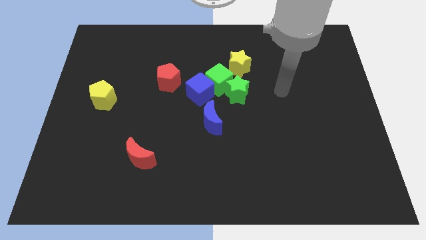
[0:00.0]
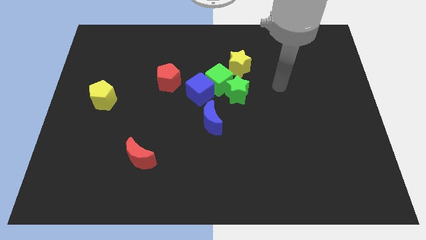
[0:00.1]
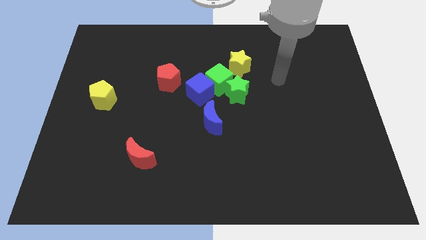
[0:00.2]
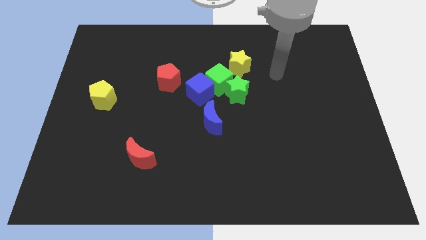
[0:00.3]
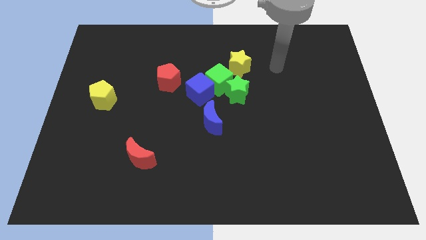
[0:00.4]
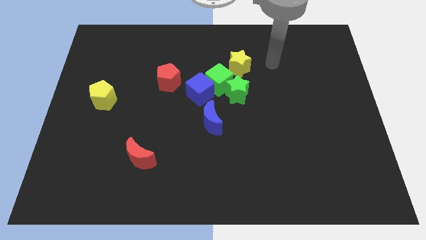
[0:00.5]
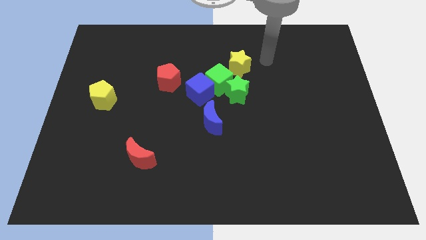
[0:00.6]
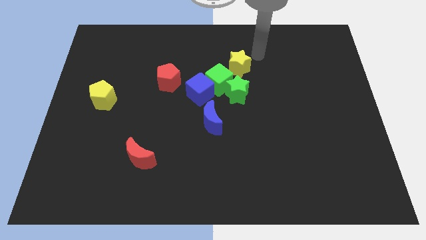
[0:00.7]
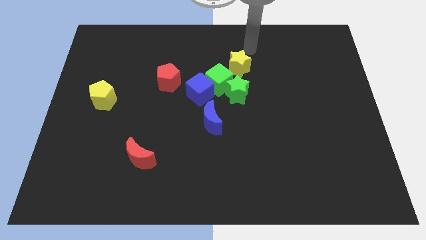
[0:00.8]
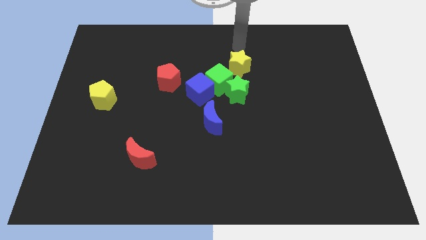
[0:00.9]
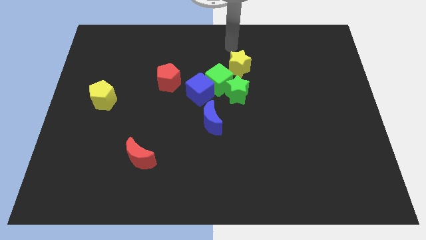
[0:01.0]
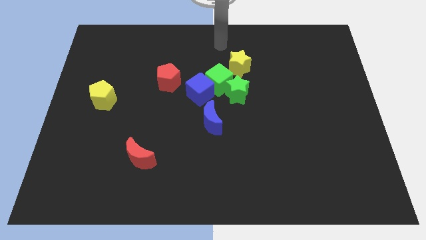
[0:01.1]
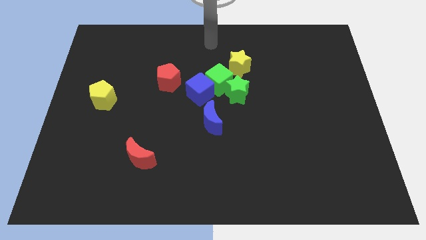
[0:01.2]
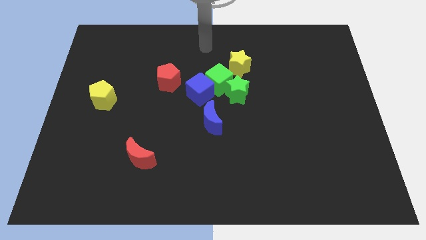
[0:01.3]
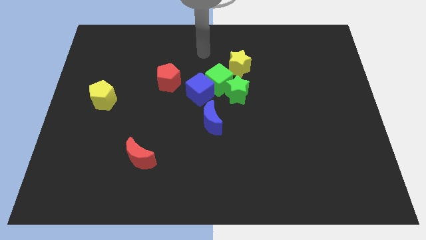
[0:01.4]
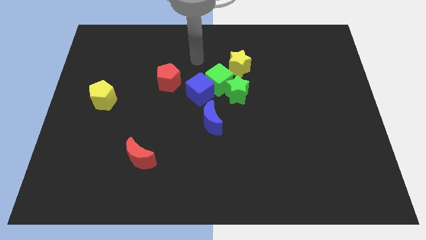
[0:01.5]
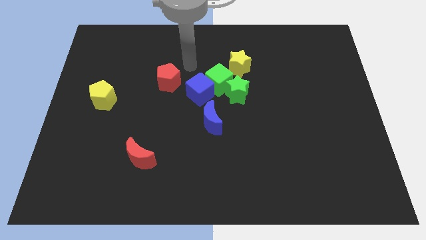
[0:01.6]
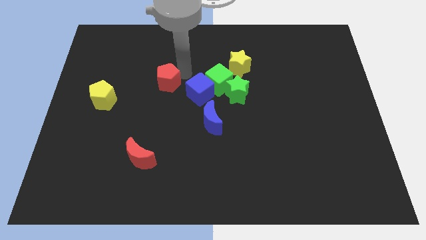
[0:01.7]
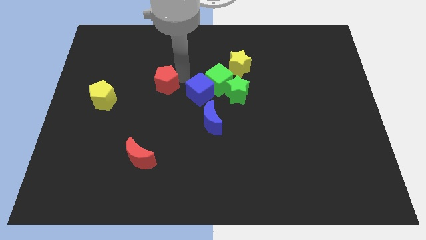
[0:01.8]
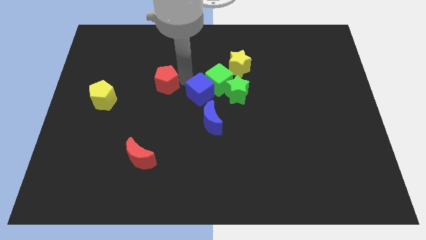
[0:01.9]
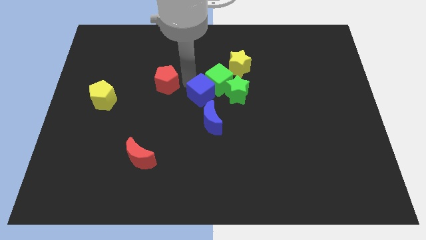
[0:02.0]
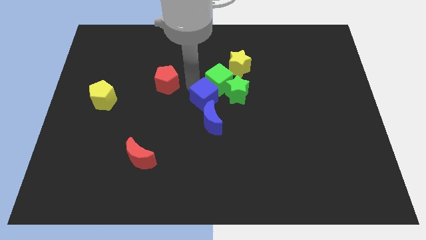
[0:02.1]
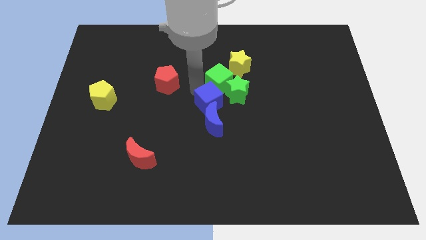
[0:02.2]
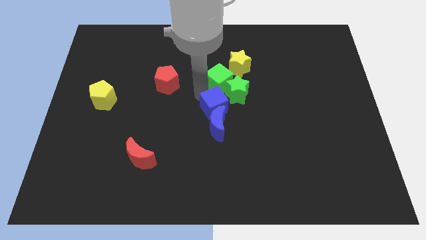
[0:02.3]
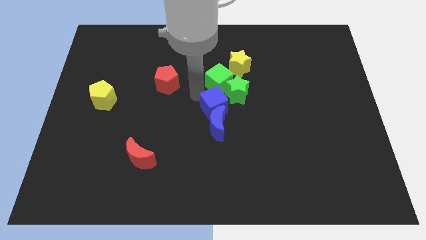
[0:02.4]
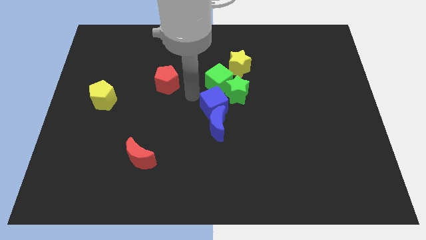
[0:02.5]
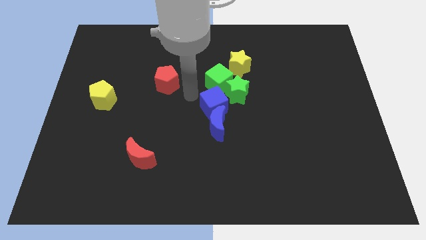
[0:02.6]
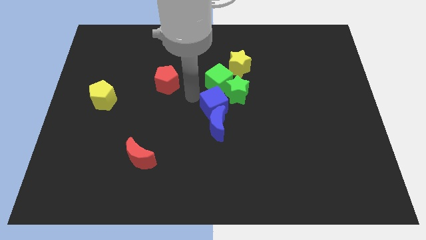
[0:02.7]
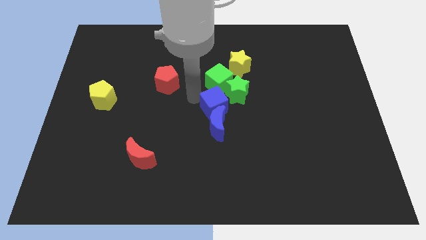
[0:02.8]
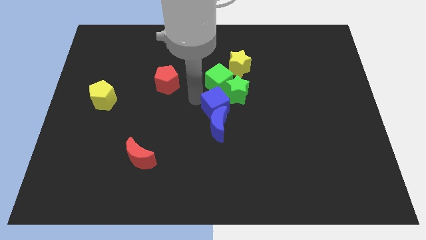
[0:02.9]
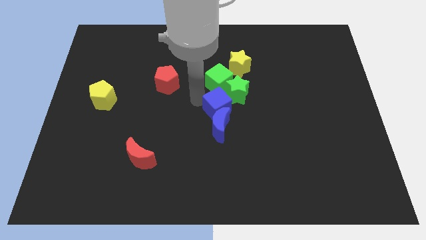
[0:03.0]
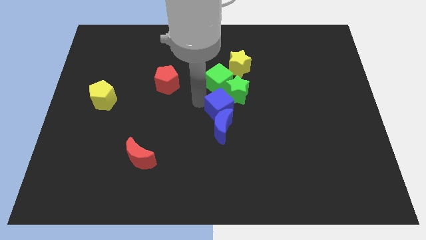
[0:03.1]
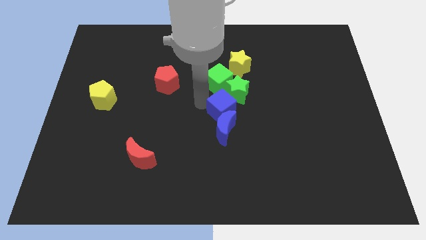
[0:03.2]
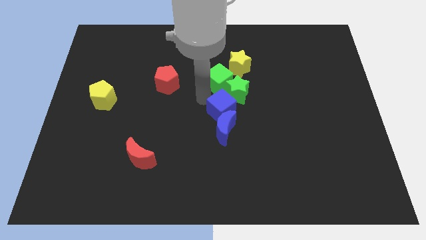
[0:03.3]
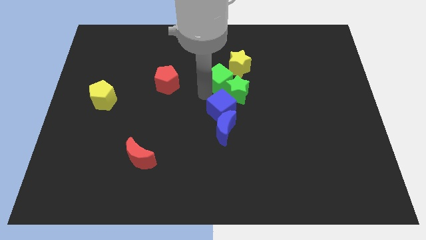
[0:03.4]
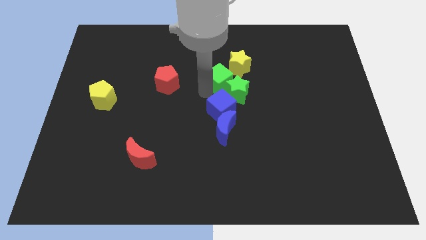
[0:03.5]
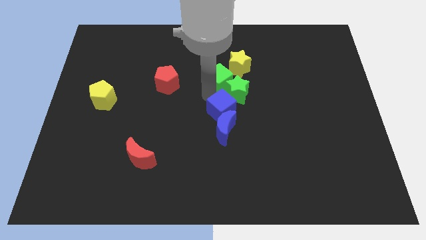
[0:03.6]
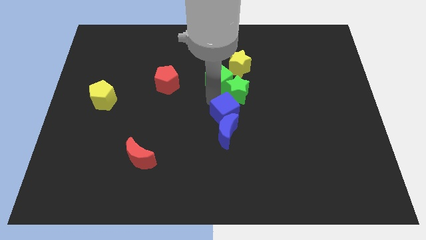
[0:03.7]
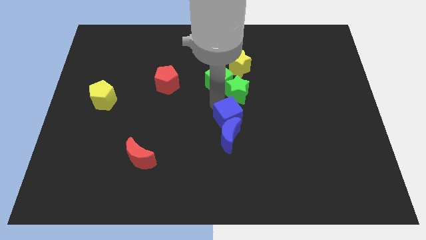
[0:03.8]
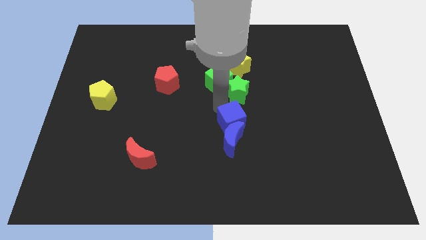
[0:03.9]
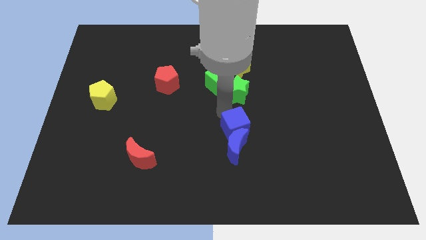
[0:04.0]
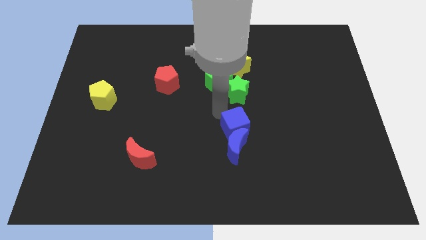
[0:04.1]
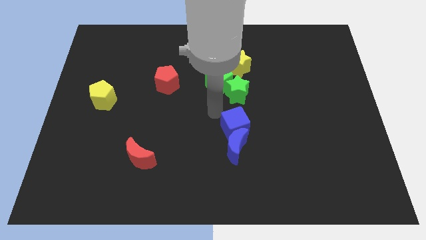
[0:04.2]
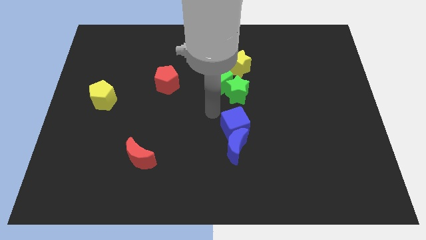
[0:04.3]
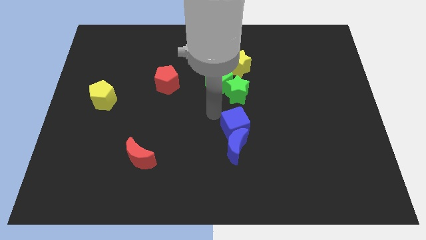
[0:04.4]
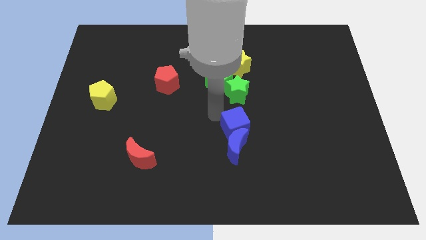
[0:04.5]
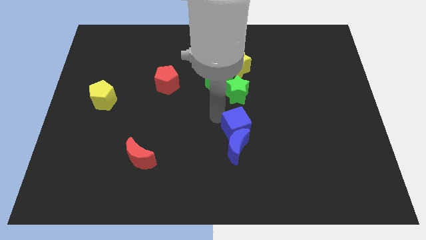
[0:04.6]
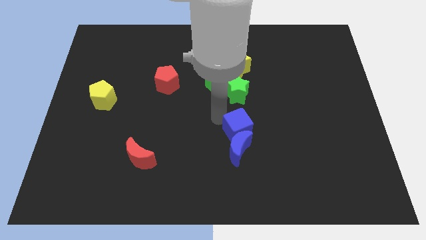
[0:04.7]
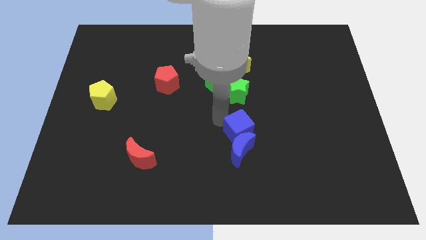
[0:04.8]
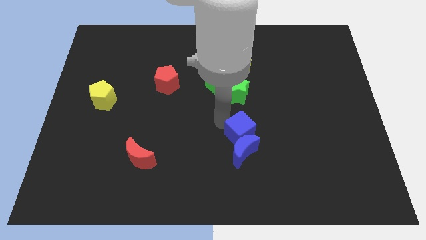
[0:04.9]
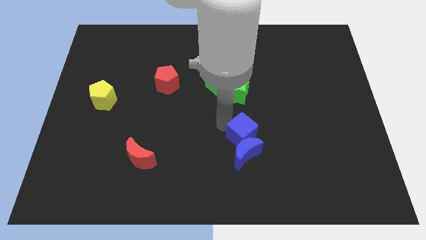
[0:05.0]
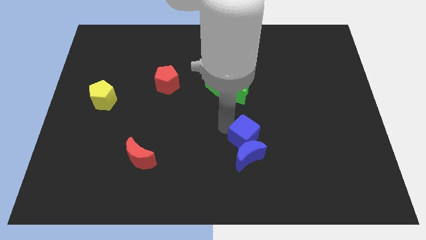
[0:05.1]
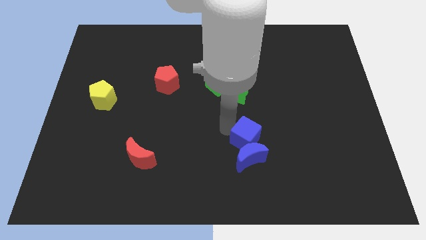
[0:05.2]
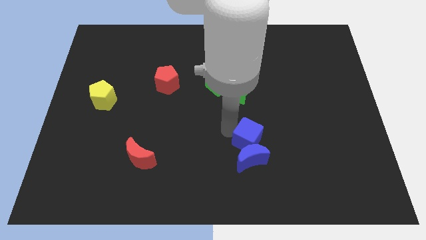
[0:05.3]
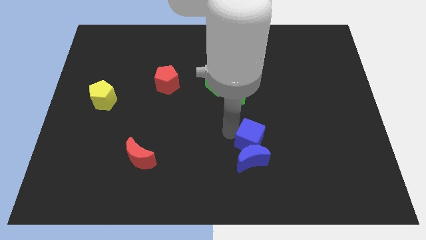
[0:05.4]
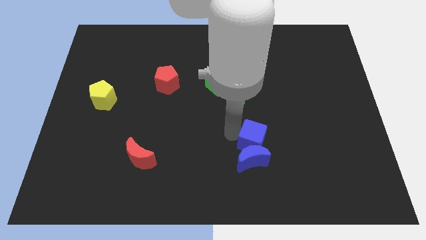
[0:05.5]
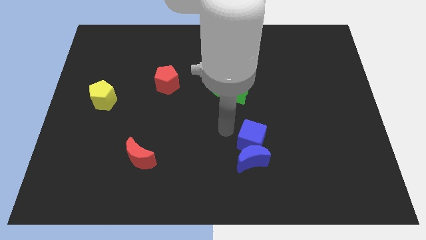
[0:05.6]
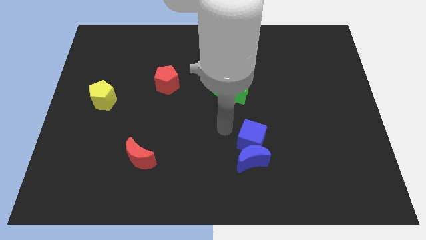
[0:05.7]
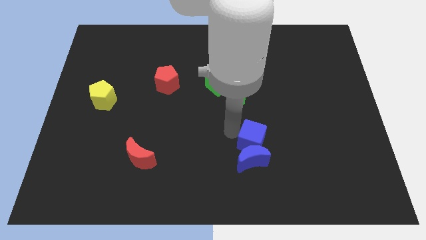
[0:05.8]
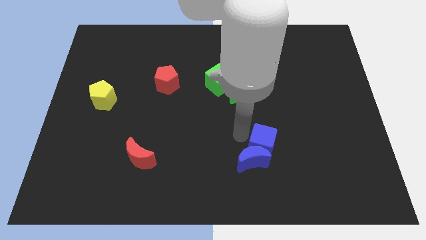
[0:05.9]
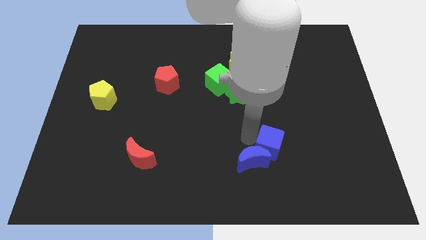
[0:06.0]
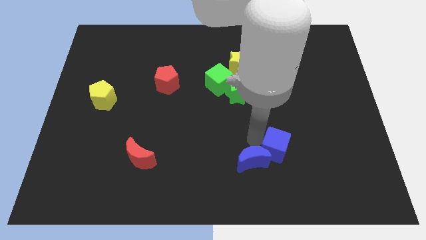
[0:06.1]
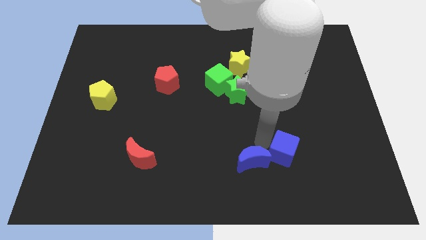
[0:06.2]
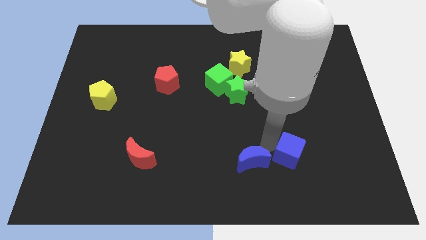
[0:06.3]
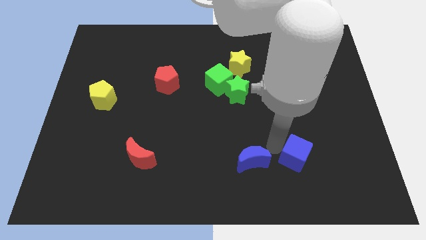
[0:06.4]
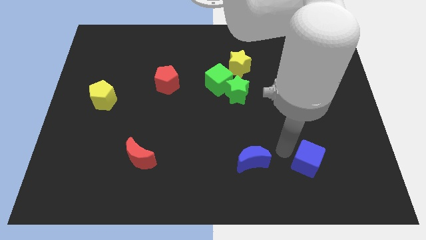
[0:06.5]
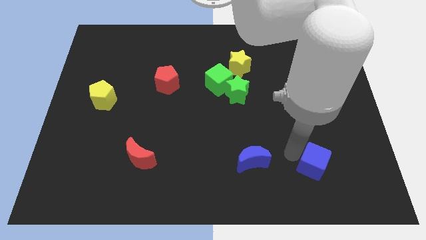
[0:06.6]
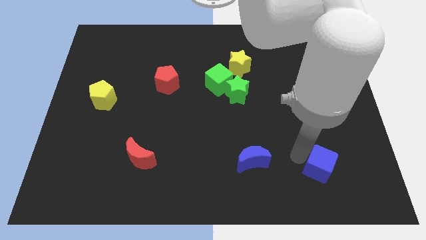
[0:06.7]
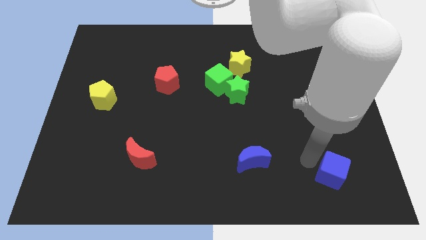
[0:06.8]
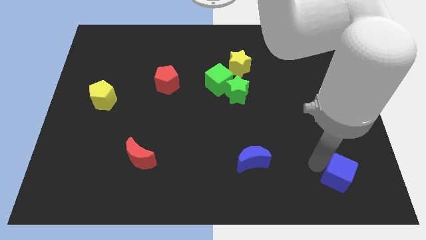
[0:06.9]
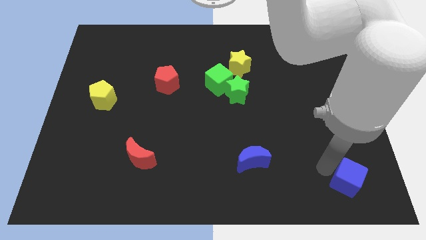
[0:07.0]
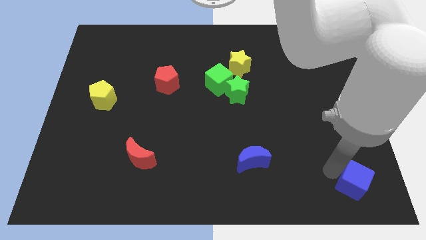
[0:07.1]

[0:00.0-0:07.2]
move the blue cube to the bottom right
